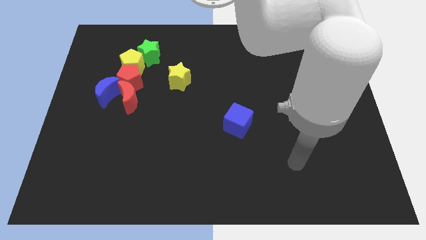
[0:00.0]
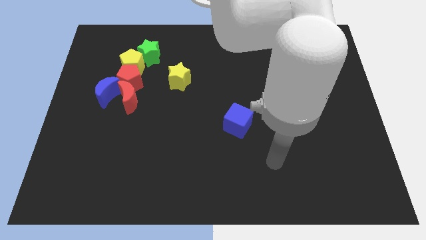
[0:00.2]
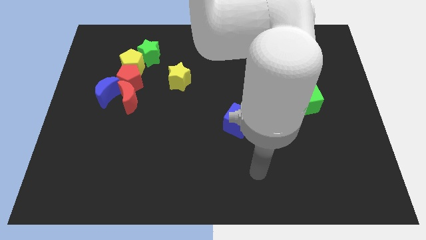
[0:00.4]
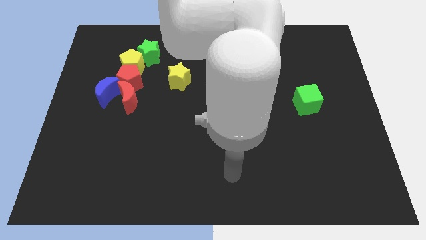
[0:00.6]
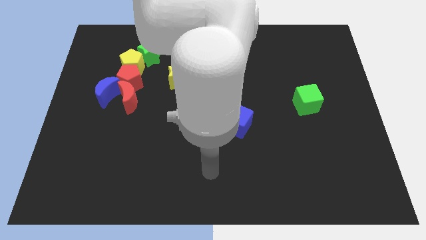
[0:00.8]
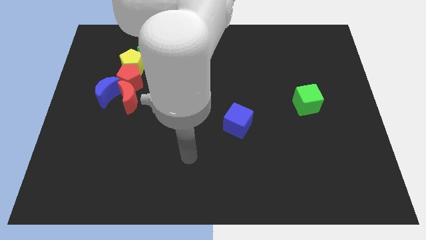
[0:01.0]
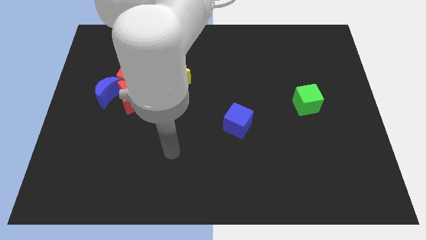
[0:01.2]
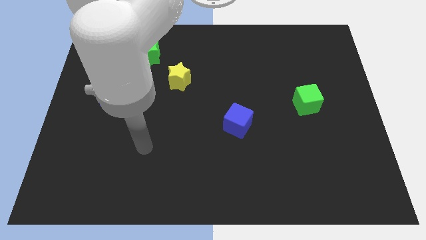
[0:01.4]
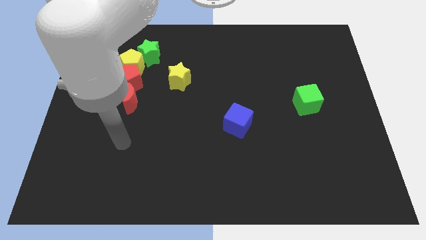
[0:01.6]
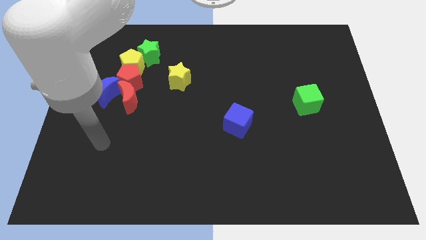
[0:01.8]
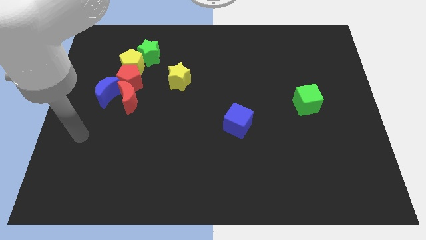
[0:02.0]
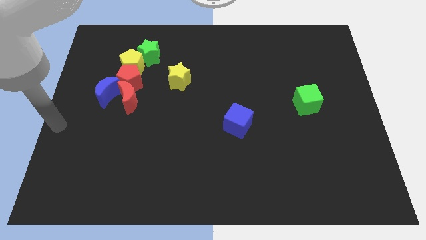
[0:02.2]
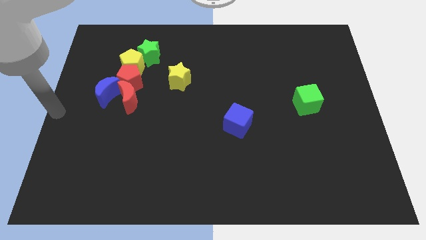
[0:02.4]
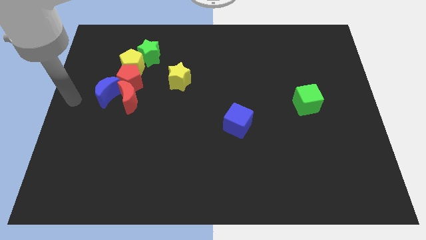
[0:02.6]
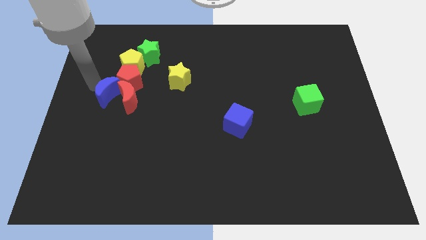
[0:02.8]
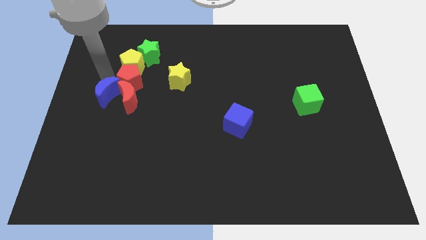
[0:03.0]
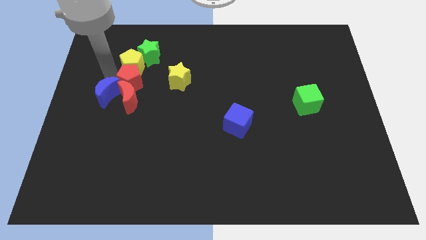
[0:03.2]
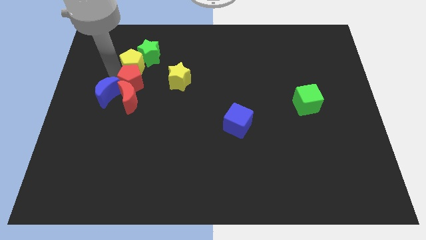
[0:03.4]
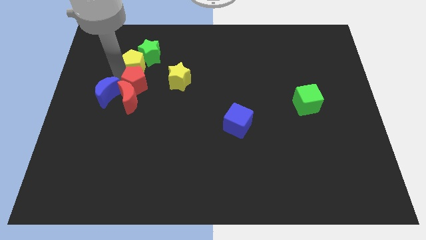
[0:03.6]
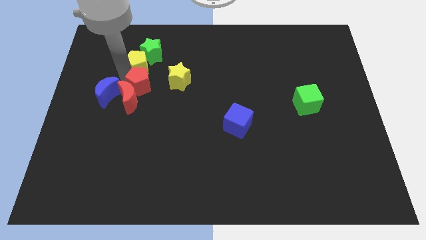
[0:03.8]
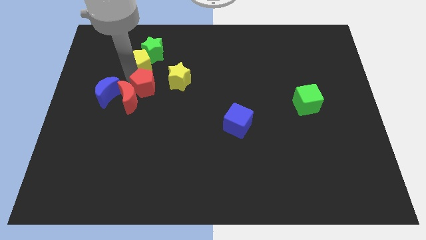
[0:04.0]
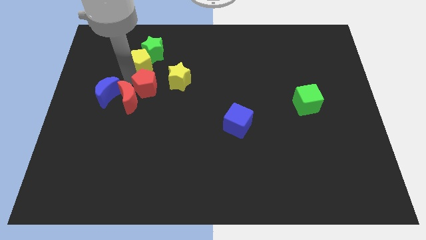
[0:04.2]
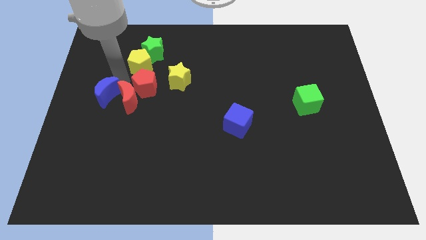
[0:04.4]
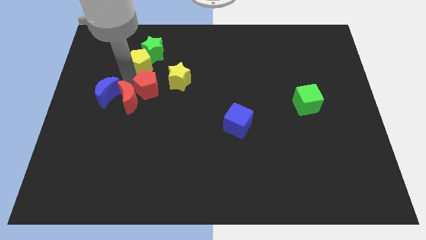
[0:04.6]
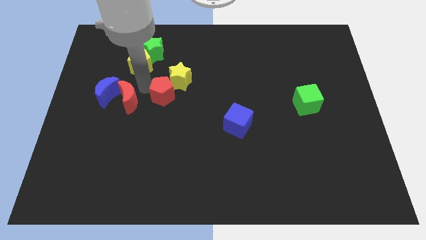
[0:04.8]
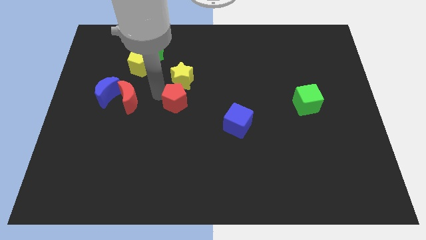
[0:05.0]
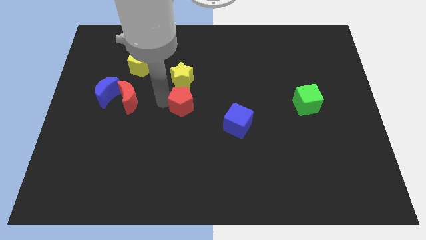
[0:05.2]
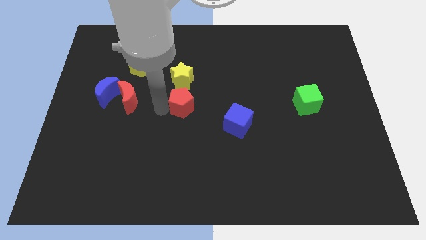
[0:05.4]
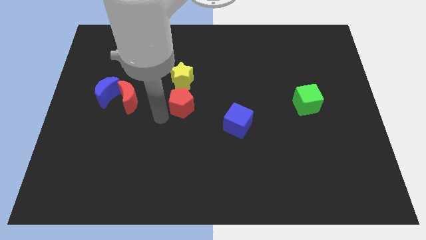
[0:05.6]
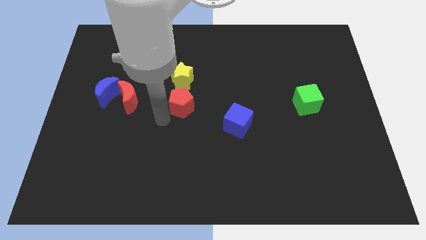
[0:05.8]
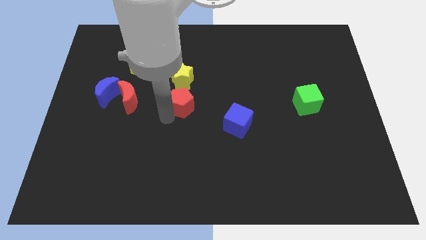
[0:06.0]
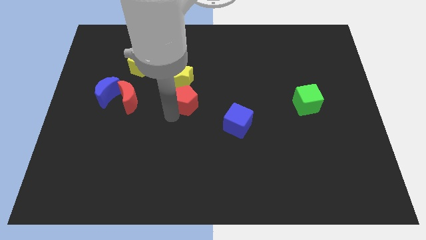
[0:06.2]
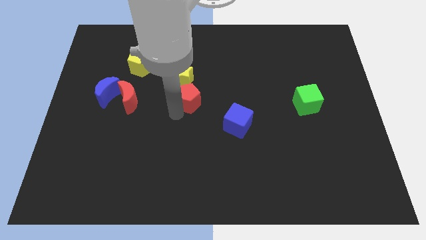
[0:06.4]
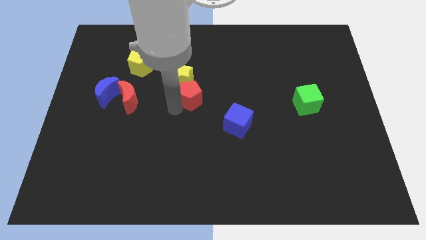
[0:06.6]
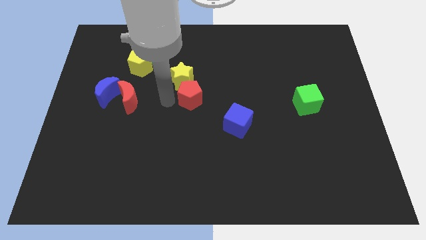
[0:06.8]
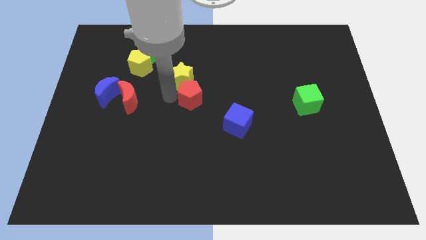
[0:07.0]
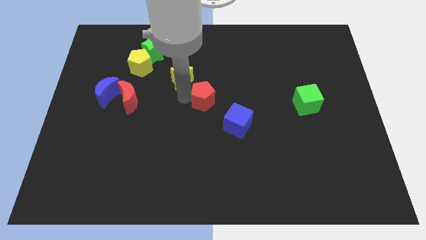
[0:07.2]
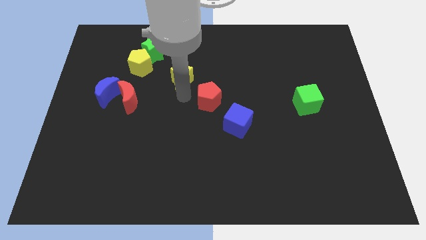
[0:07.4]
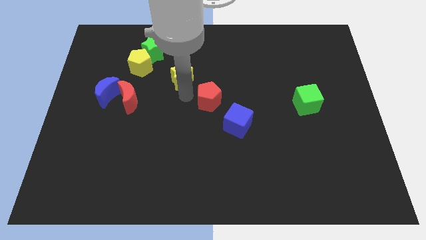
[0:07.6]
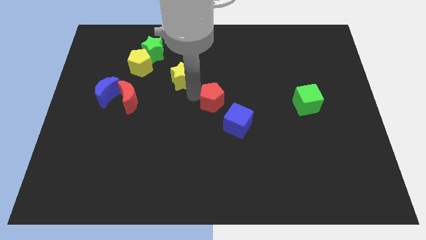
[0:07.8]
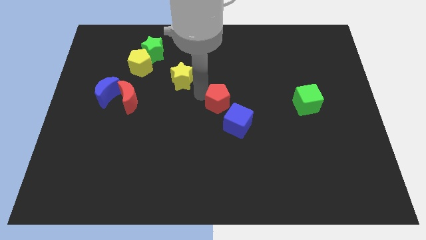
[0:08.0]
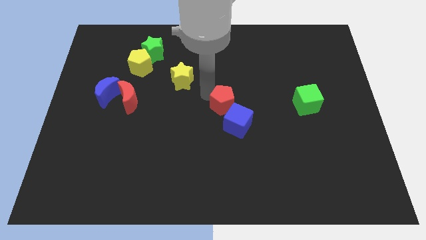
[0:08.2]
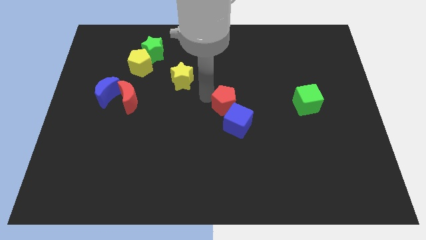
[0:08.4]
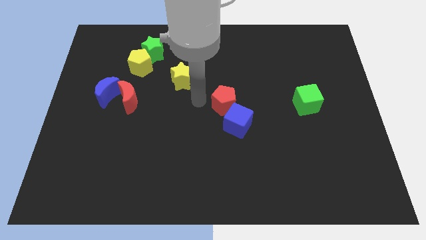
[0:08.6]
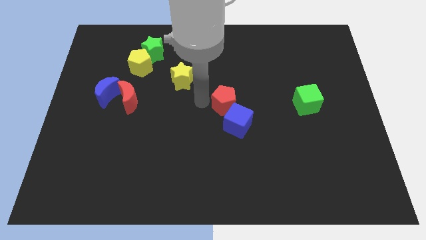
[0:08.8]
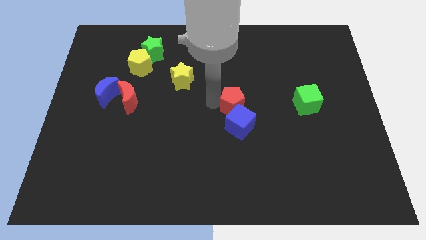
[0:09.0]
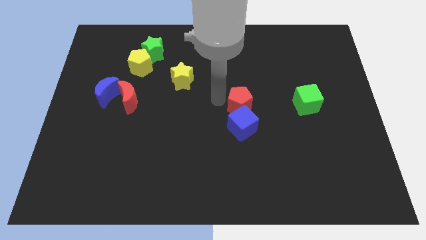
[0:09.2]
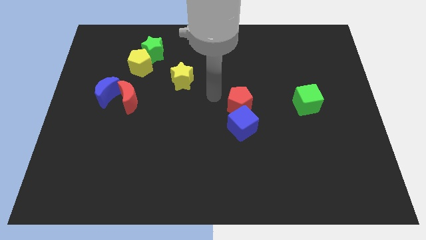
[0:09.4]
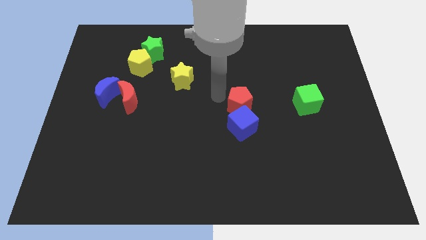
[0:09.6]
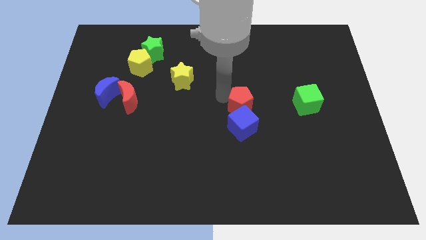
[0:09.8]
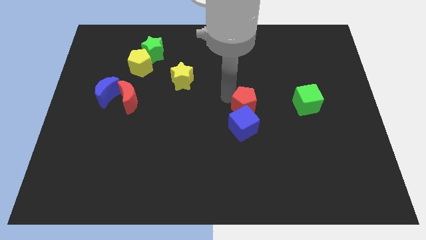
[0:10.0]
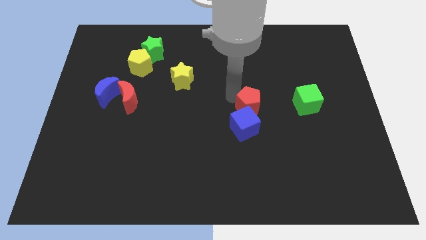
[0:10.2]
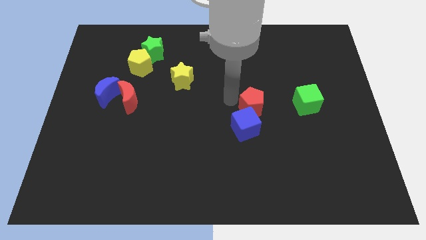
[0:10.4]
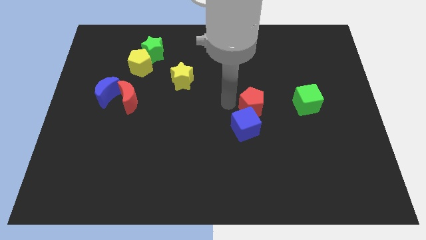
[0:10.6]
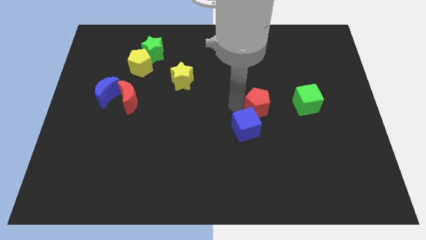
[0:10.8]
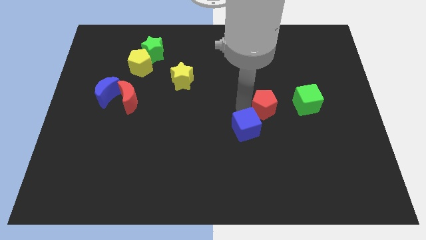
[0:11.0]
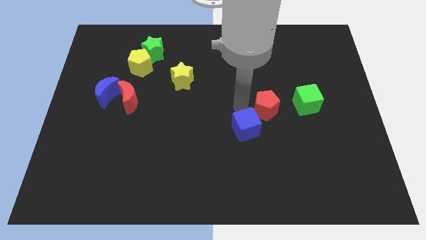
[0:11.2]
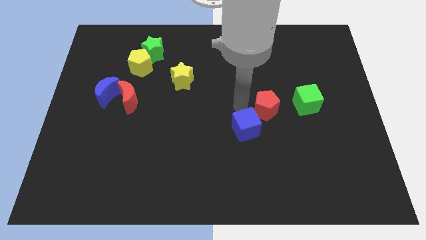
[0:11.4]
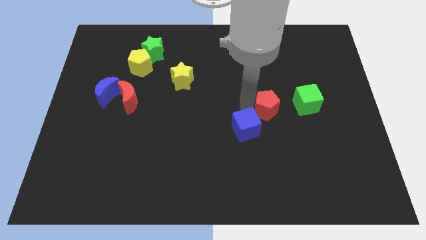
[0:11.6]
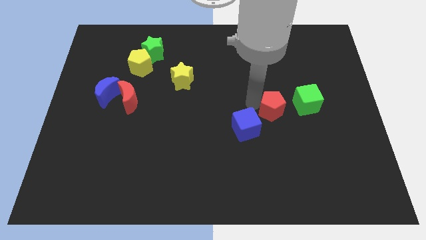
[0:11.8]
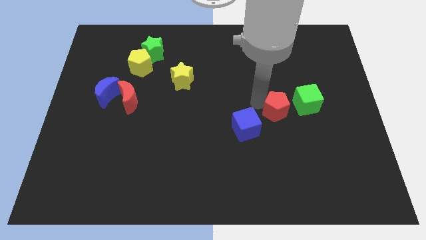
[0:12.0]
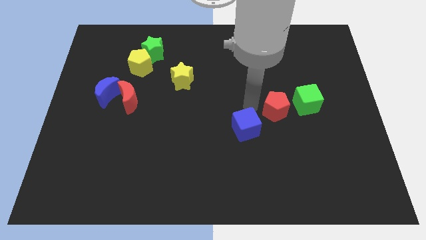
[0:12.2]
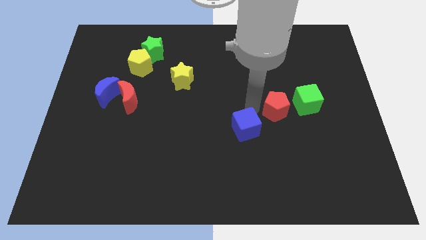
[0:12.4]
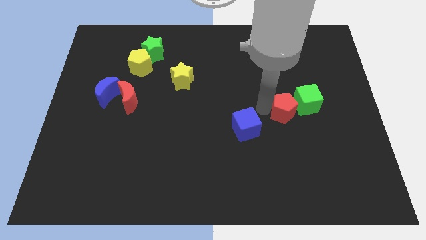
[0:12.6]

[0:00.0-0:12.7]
push the red pentagon to the green cube
